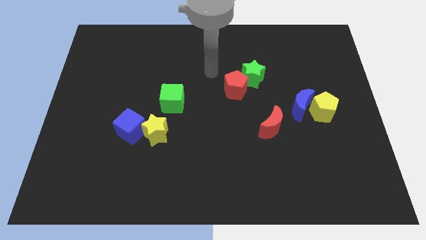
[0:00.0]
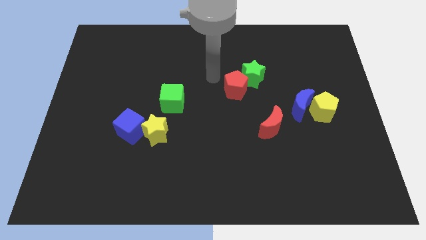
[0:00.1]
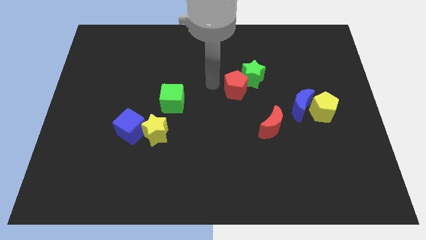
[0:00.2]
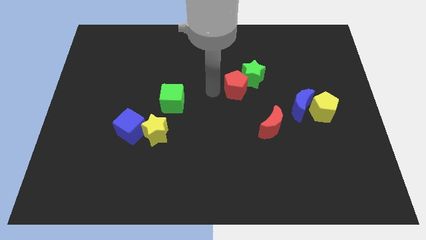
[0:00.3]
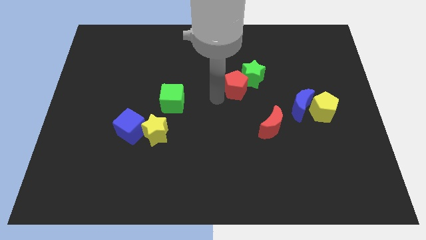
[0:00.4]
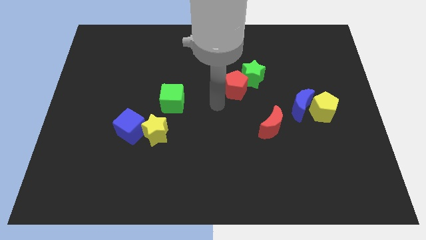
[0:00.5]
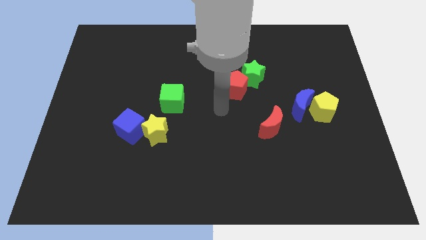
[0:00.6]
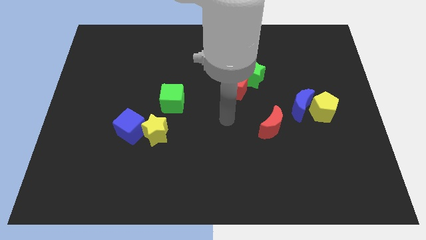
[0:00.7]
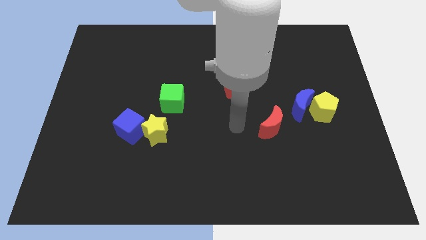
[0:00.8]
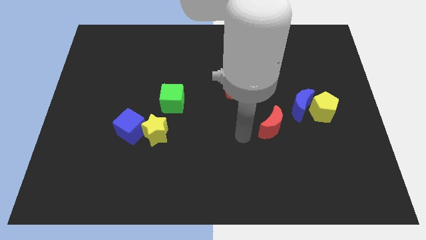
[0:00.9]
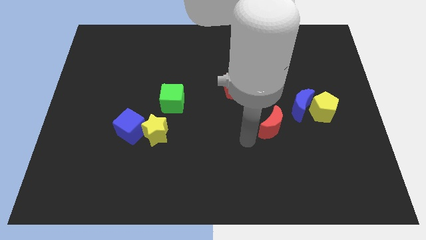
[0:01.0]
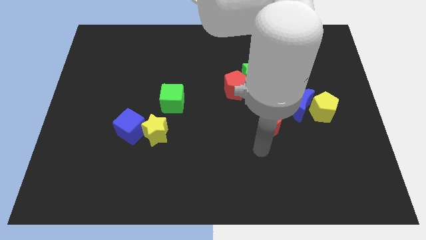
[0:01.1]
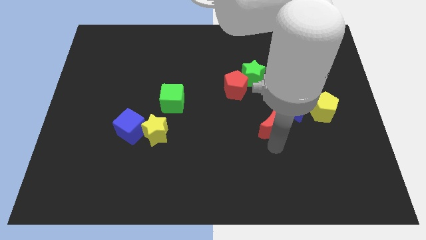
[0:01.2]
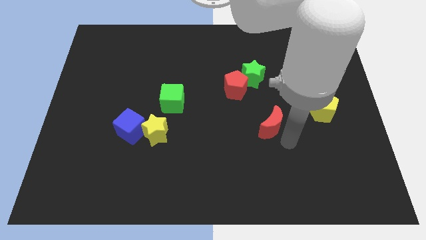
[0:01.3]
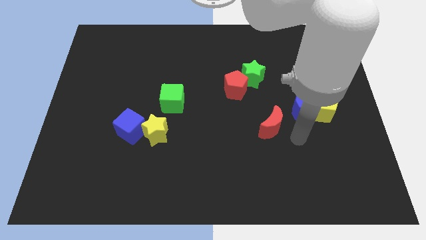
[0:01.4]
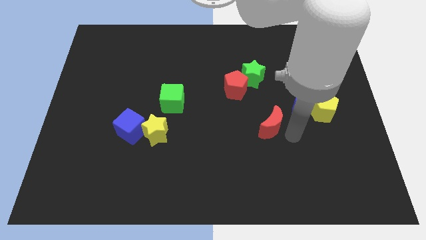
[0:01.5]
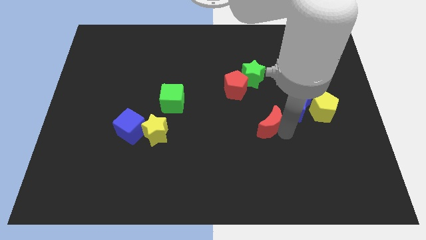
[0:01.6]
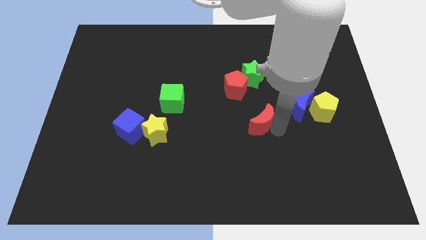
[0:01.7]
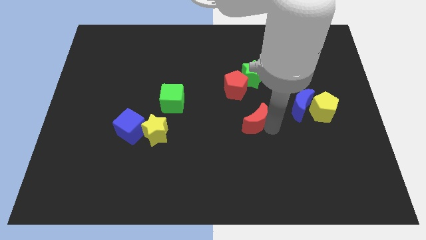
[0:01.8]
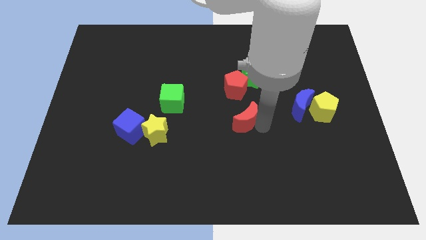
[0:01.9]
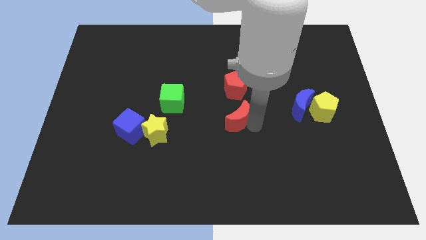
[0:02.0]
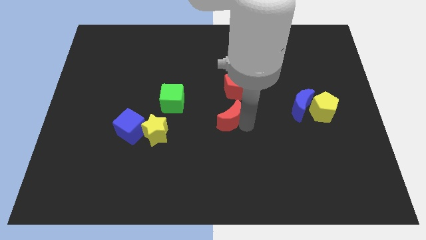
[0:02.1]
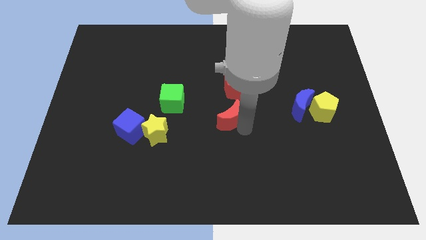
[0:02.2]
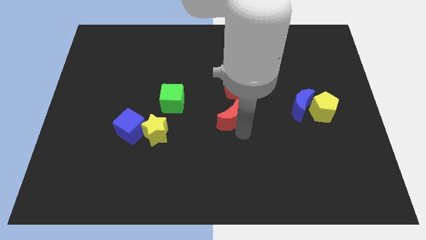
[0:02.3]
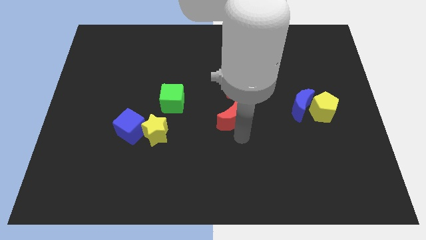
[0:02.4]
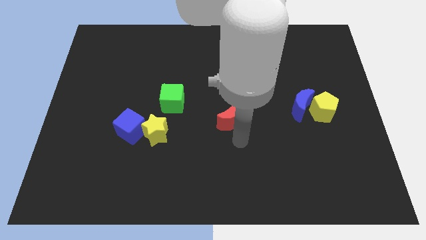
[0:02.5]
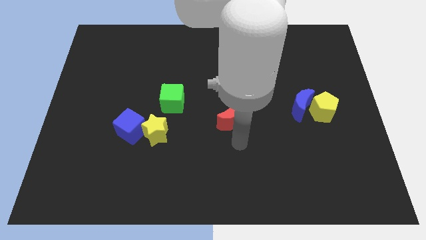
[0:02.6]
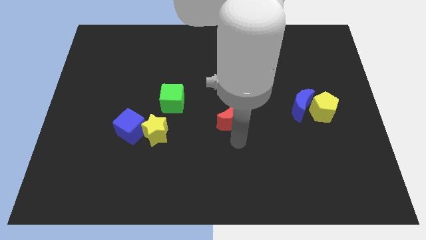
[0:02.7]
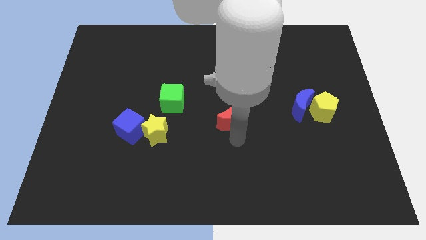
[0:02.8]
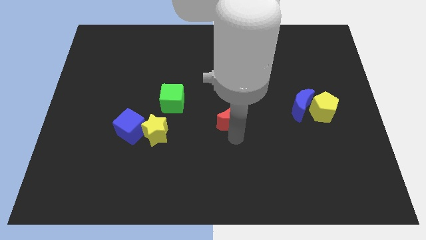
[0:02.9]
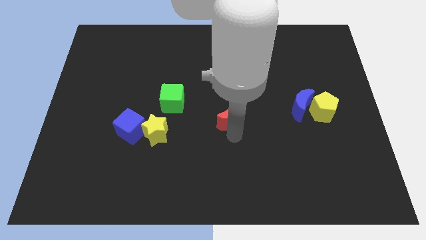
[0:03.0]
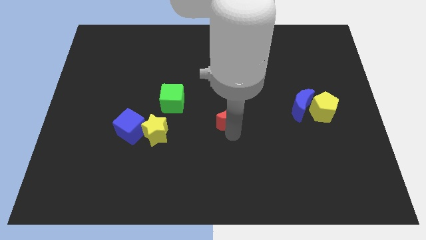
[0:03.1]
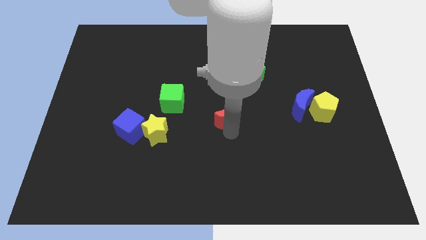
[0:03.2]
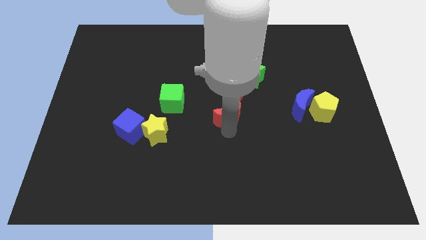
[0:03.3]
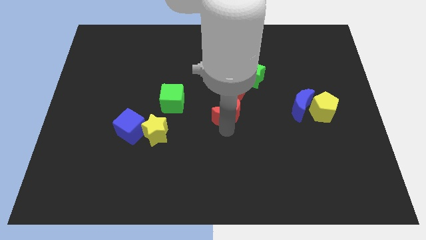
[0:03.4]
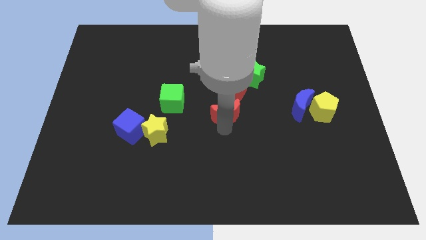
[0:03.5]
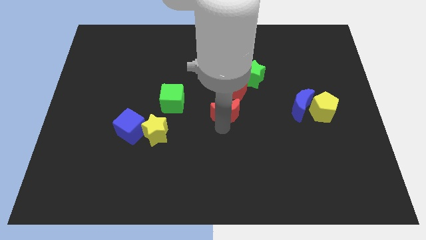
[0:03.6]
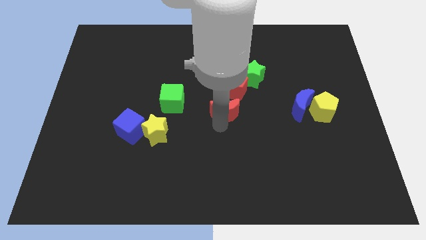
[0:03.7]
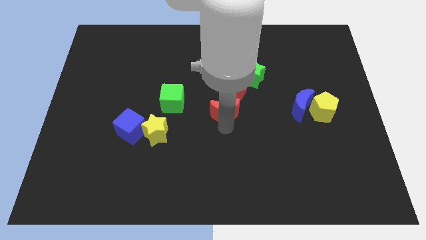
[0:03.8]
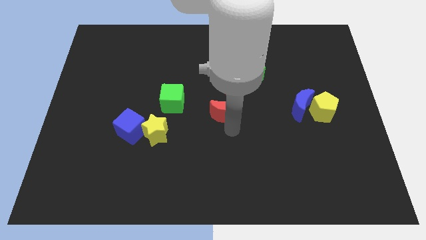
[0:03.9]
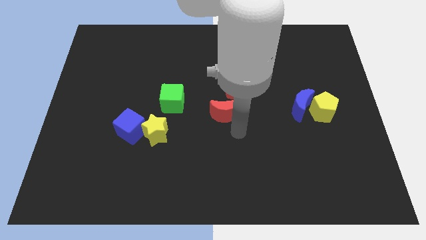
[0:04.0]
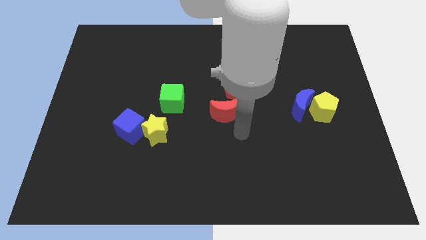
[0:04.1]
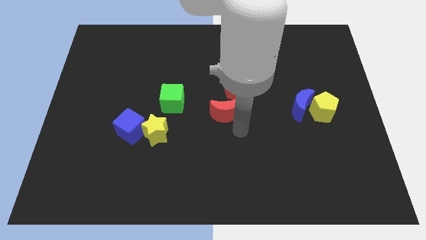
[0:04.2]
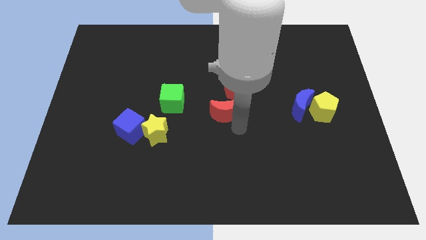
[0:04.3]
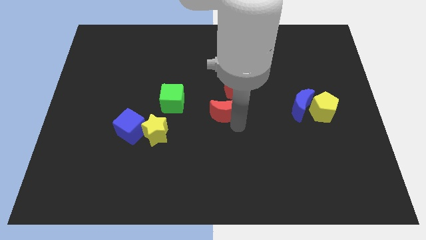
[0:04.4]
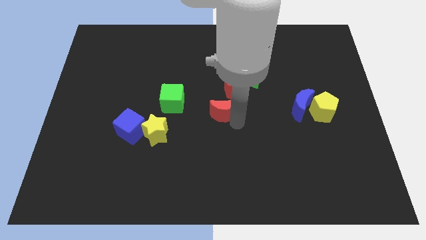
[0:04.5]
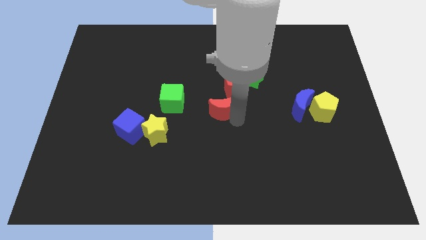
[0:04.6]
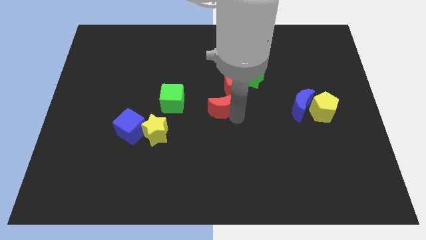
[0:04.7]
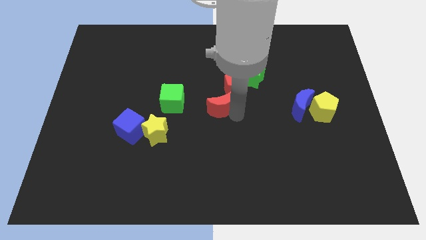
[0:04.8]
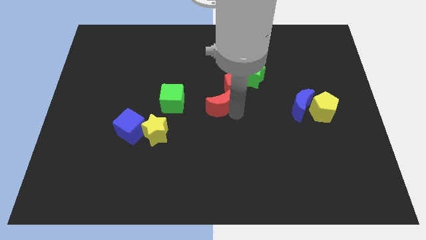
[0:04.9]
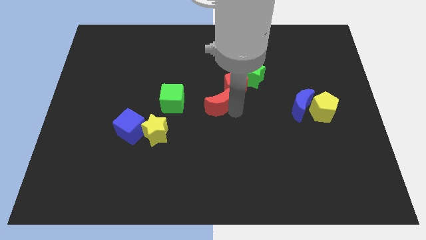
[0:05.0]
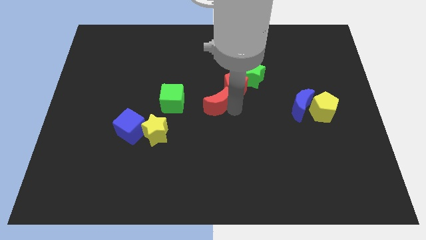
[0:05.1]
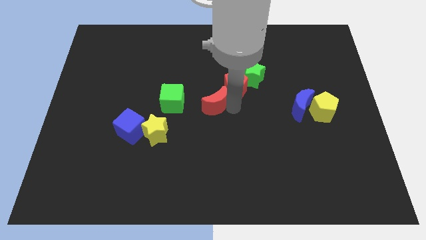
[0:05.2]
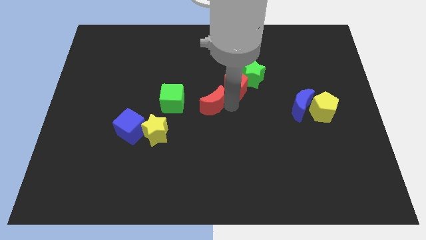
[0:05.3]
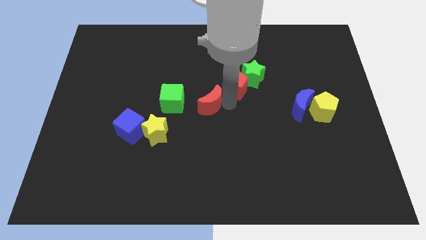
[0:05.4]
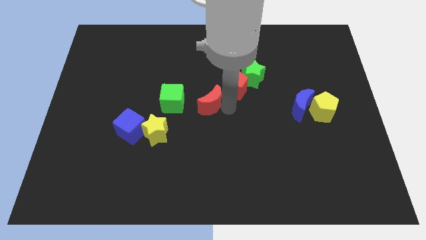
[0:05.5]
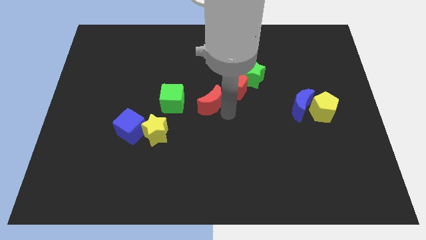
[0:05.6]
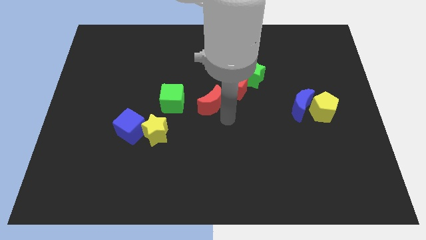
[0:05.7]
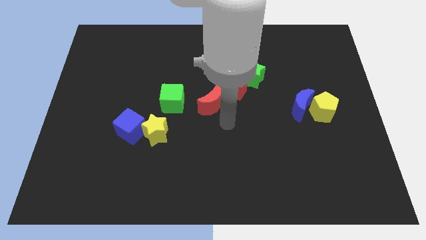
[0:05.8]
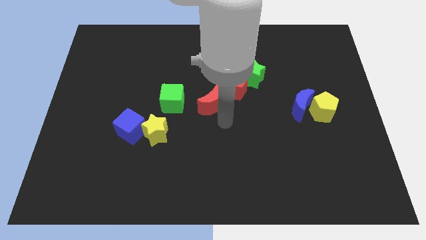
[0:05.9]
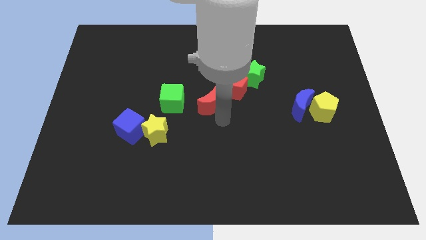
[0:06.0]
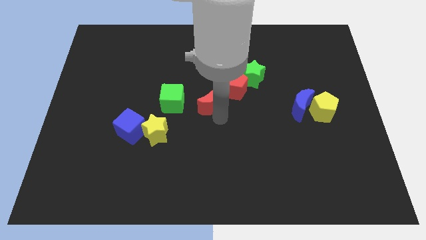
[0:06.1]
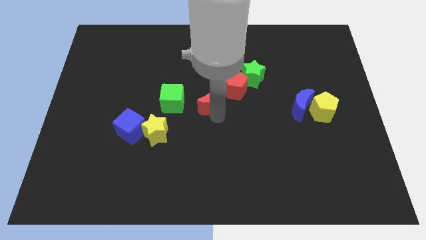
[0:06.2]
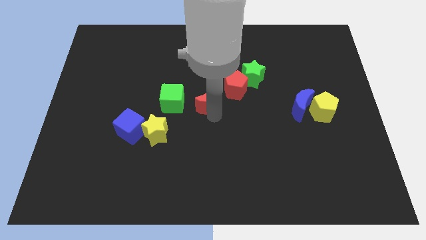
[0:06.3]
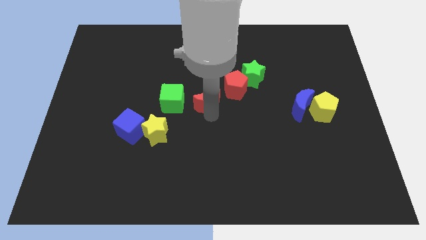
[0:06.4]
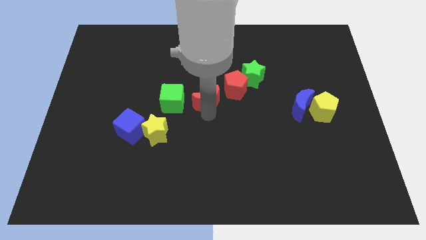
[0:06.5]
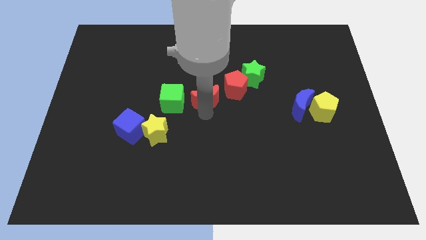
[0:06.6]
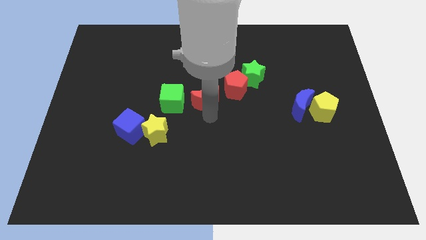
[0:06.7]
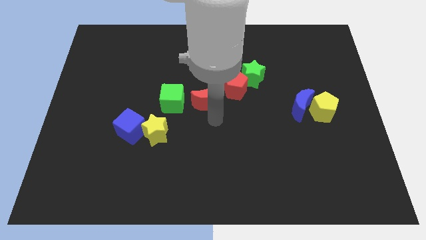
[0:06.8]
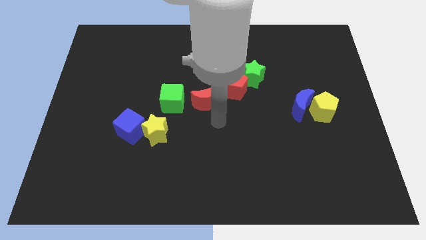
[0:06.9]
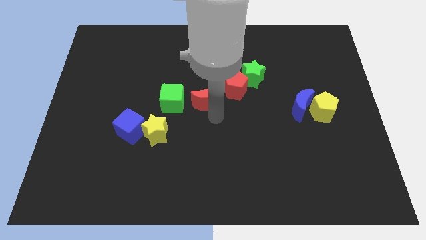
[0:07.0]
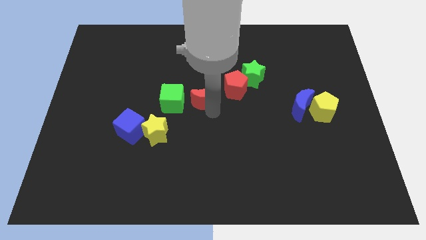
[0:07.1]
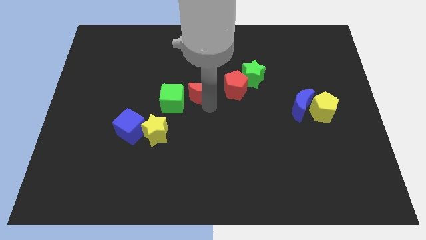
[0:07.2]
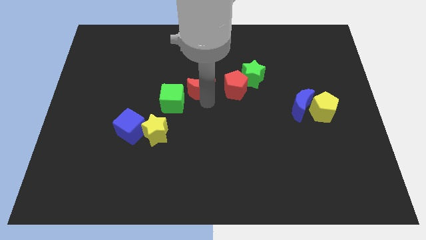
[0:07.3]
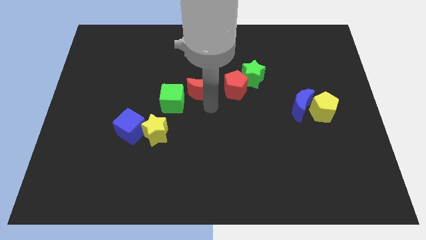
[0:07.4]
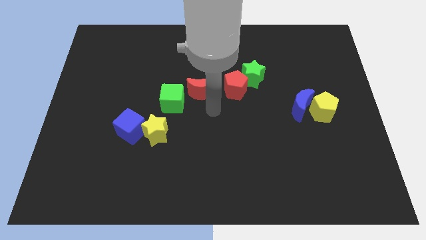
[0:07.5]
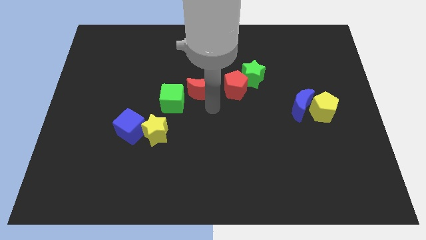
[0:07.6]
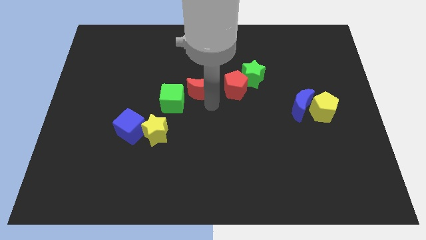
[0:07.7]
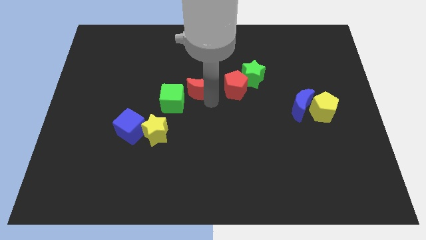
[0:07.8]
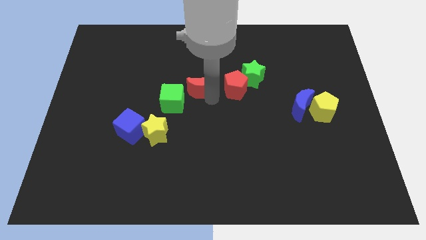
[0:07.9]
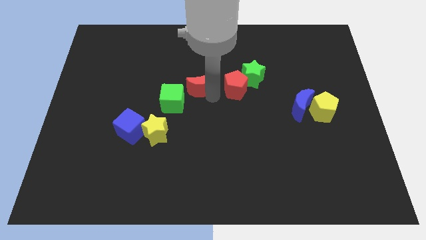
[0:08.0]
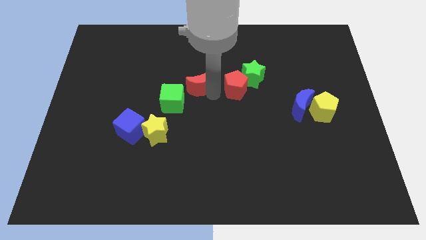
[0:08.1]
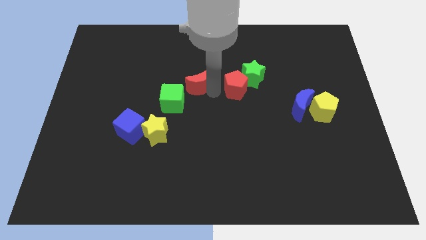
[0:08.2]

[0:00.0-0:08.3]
push the red moon diagonally up and left
